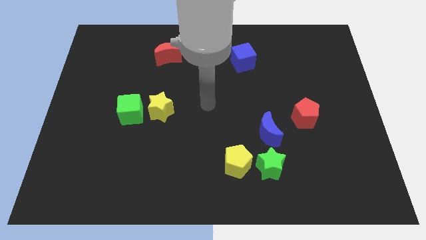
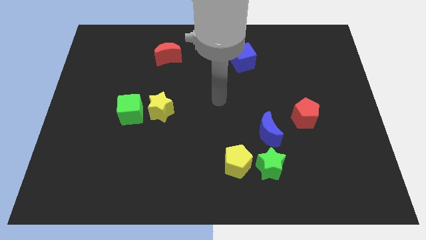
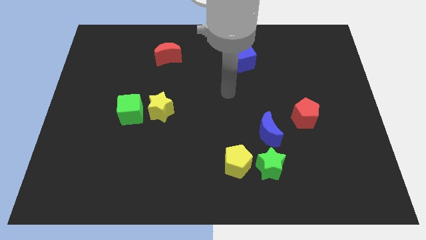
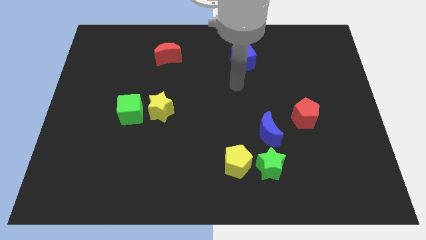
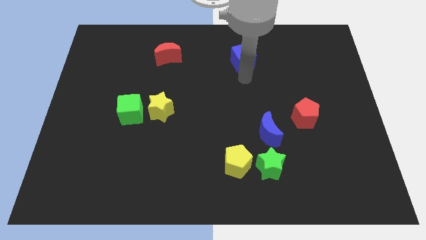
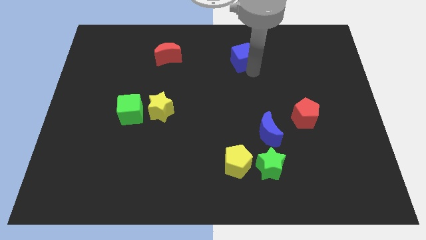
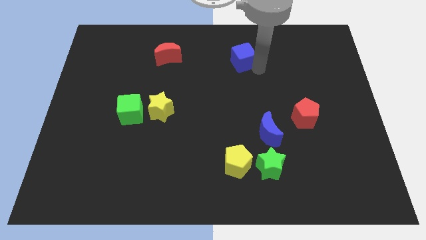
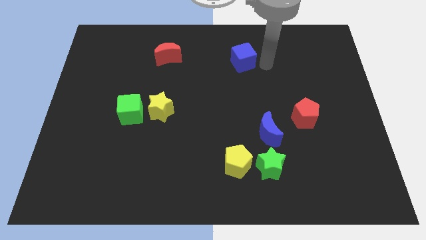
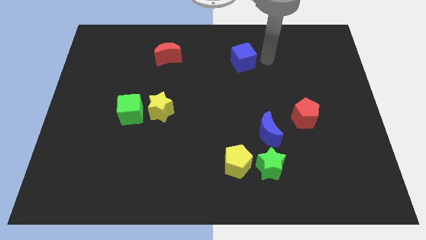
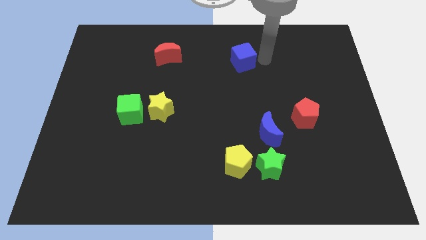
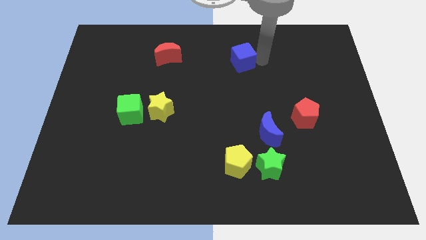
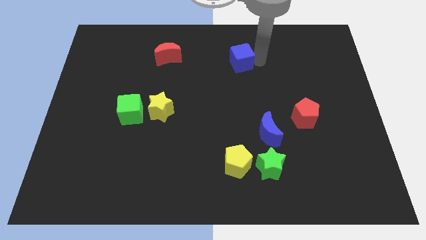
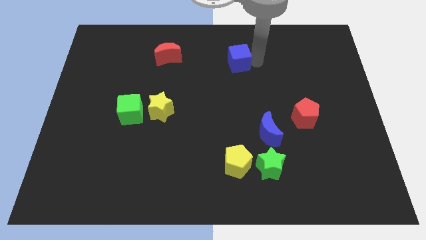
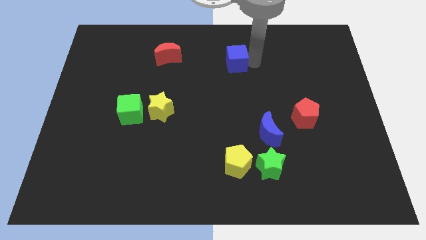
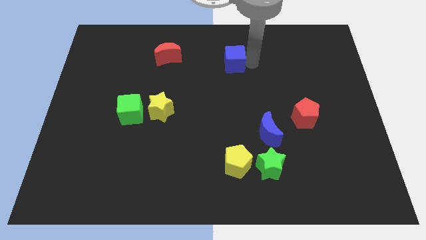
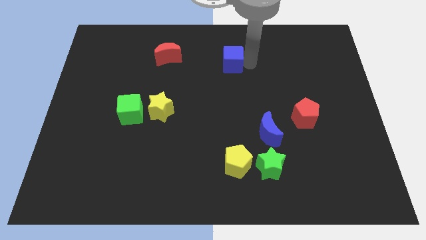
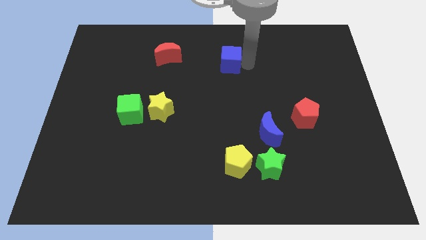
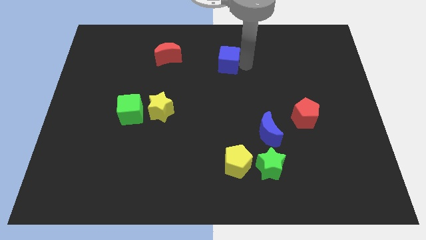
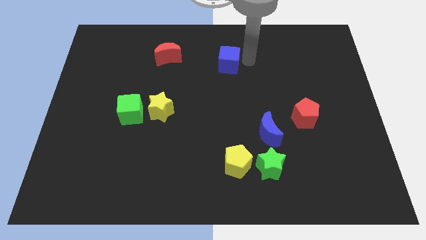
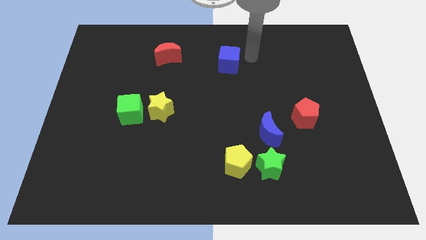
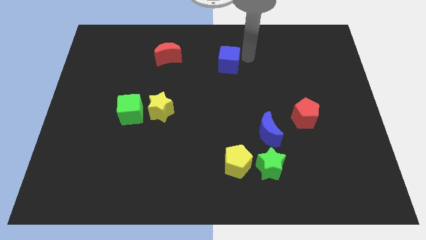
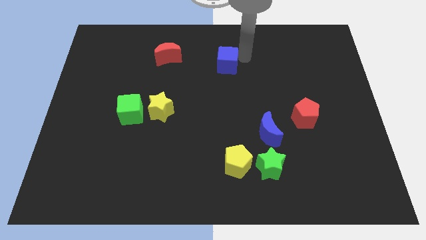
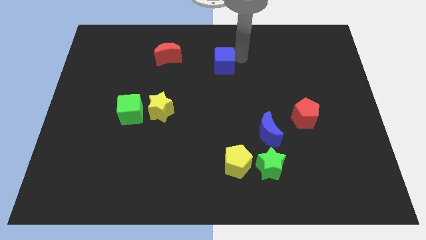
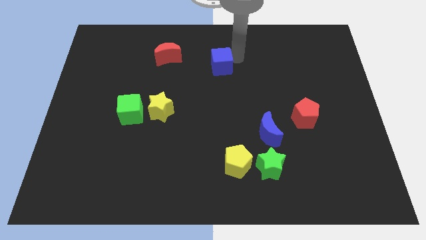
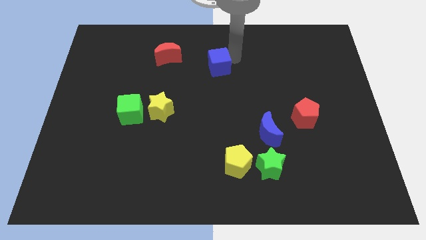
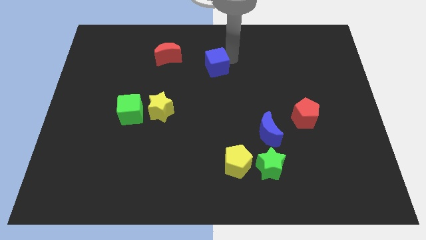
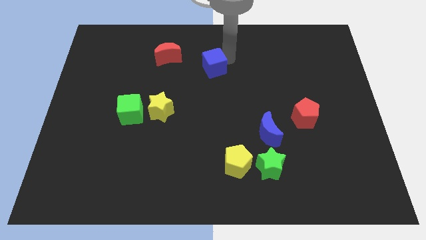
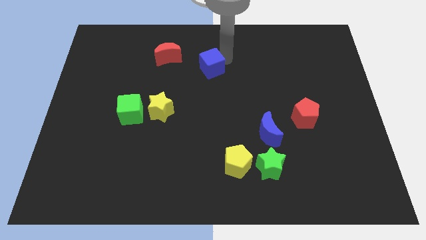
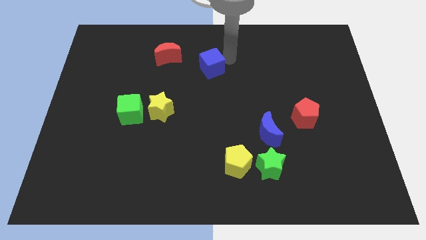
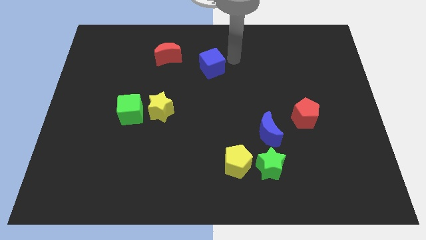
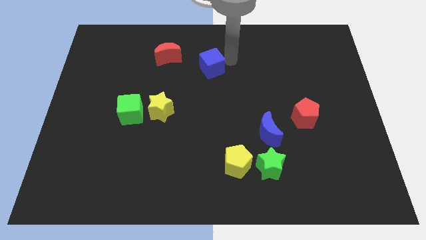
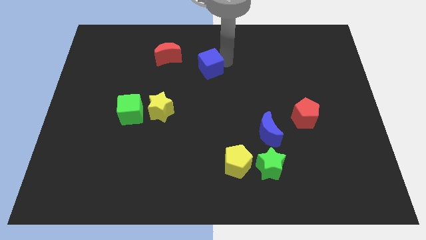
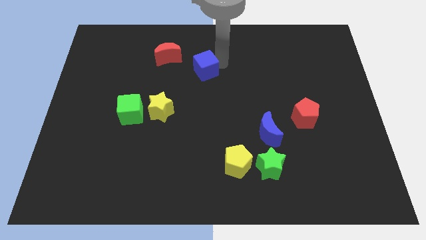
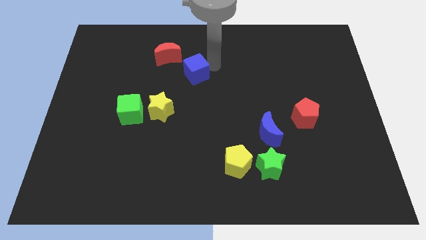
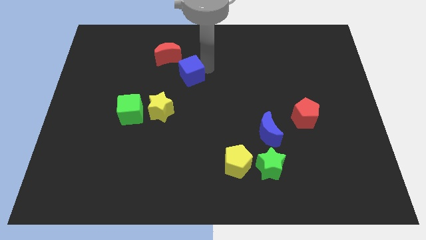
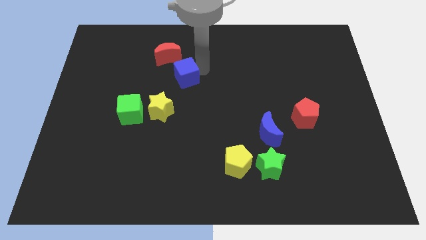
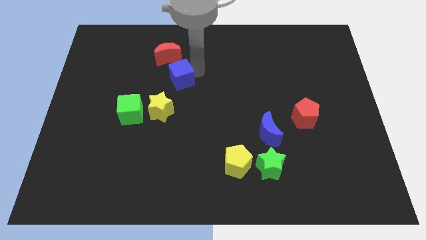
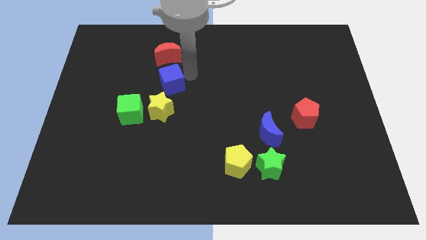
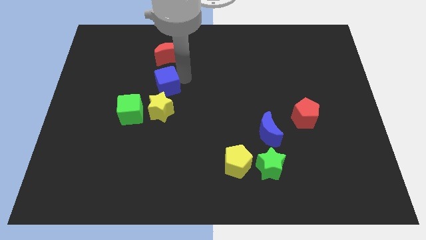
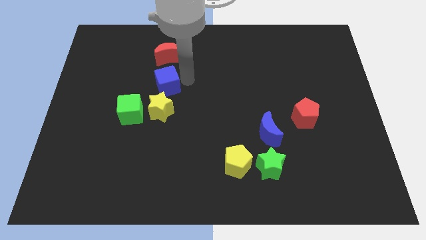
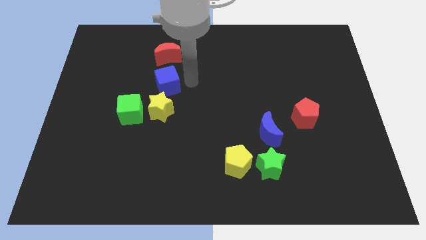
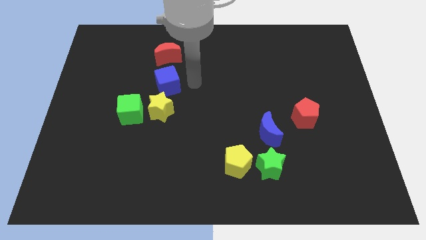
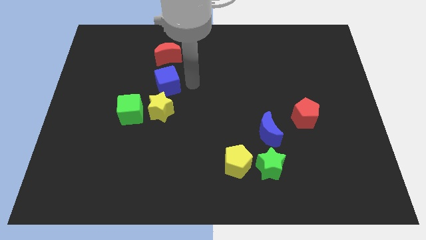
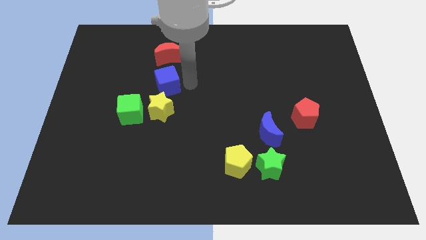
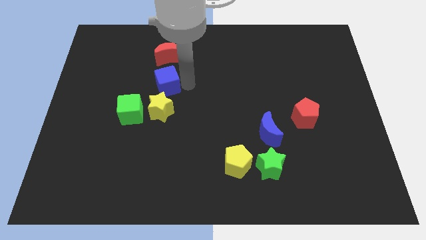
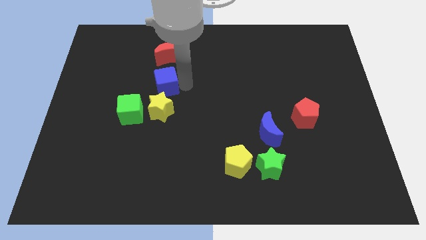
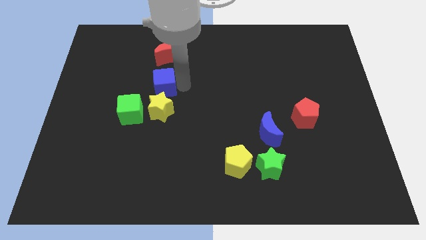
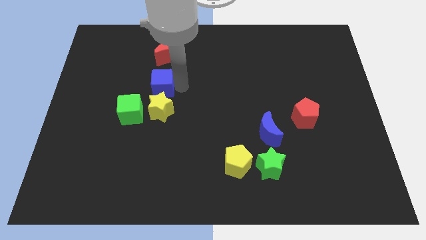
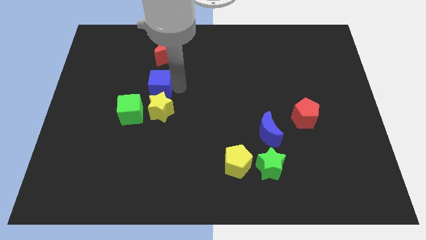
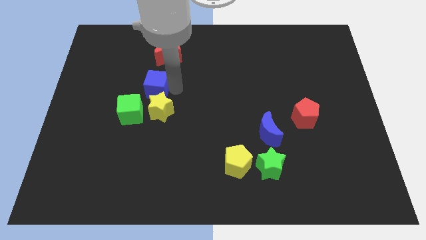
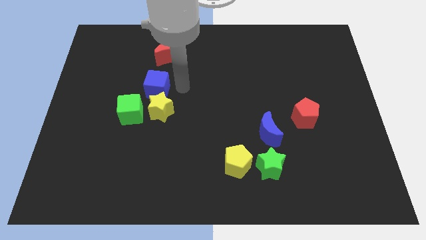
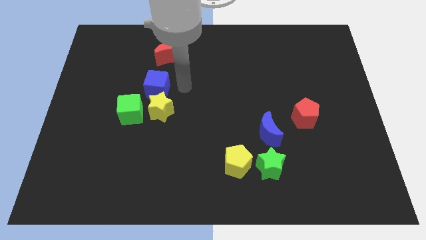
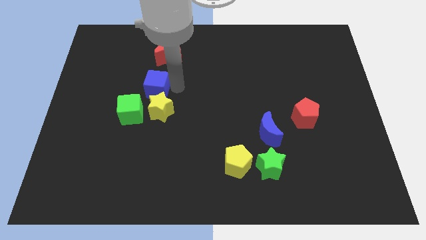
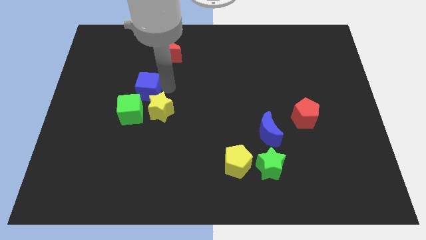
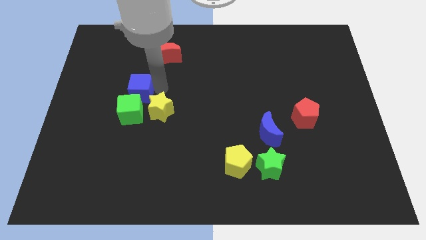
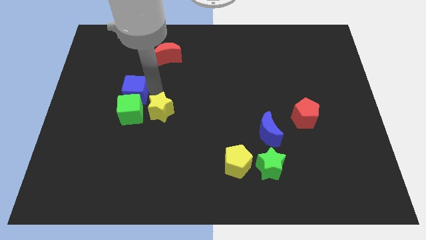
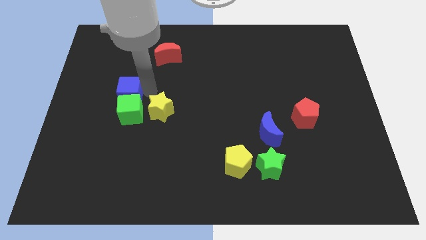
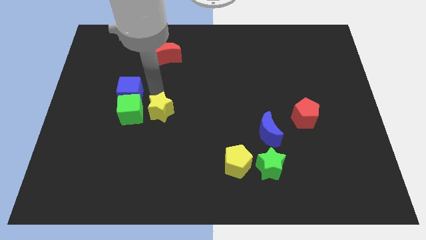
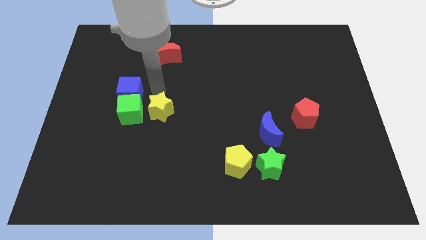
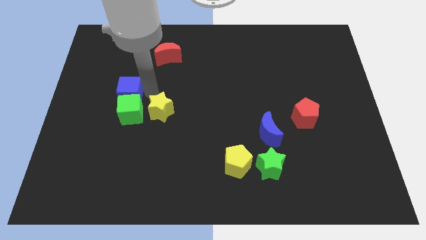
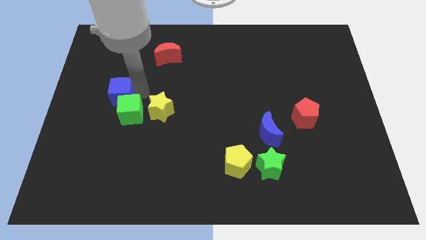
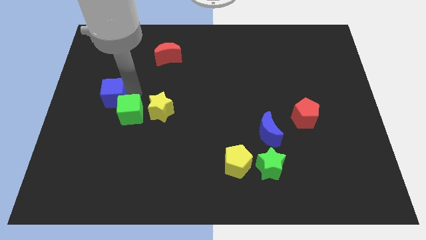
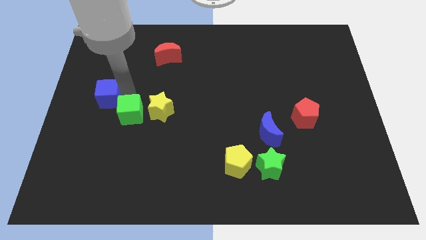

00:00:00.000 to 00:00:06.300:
move the blue cube to the left side

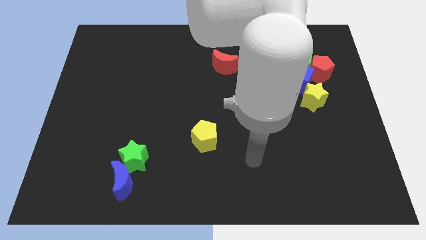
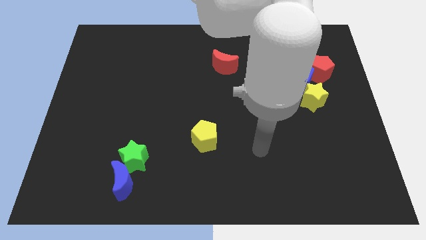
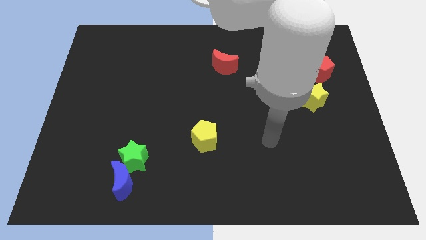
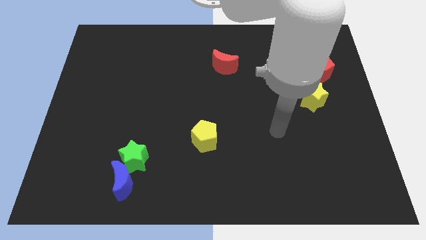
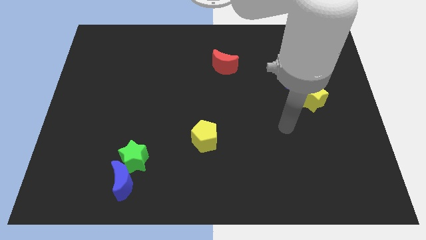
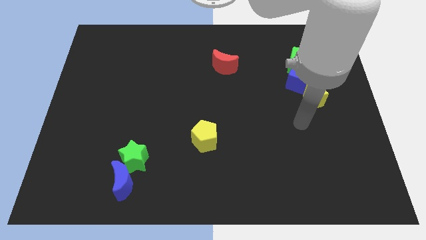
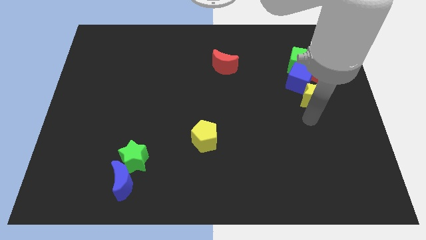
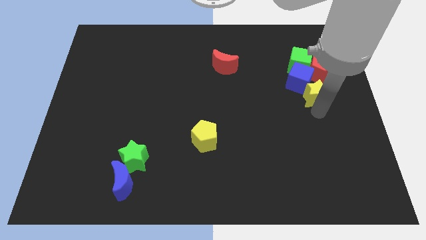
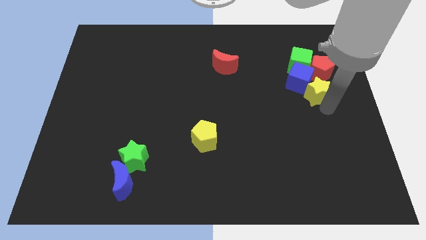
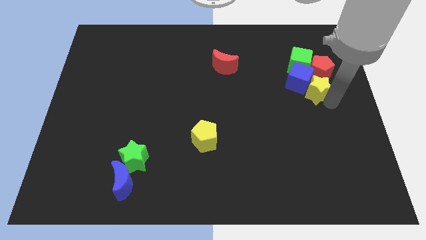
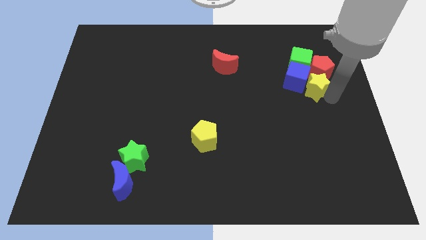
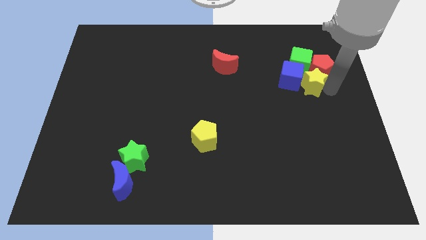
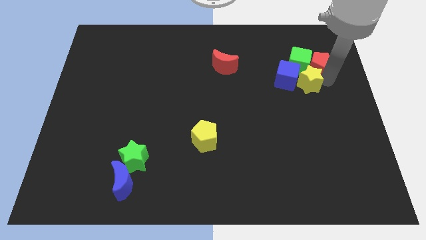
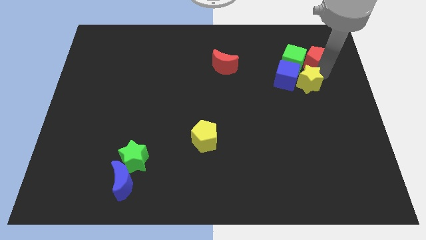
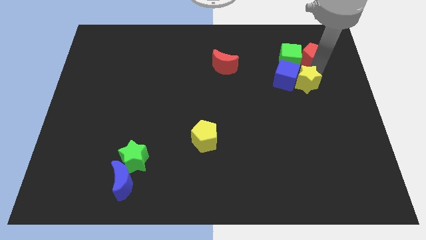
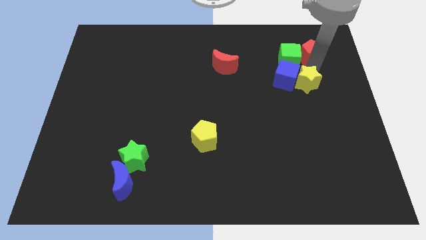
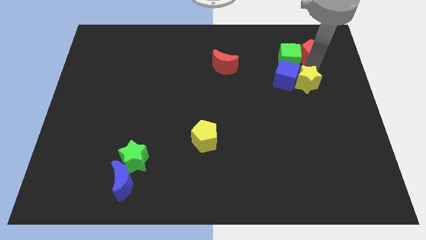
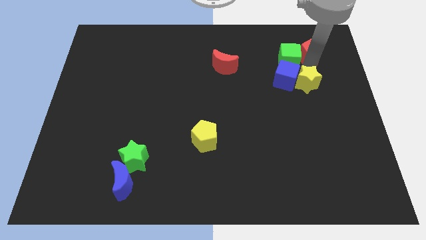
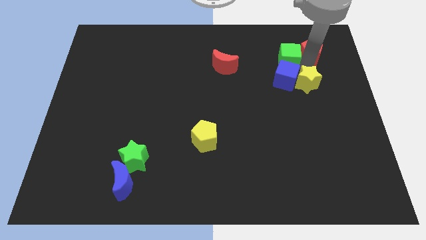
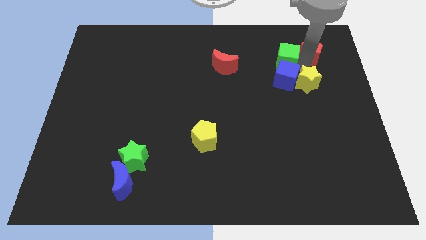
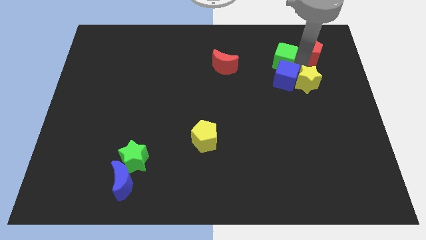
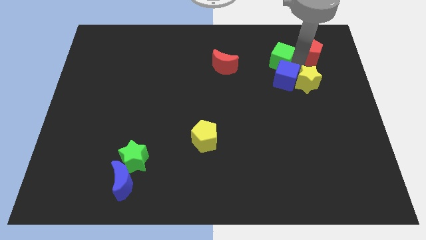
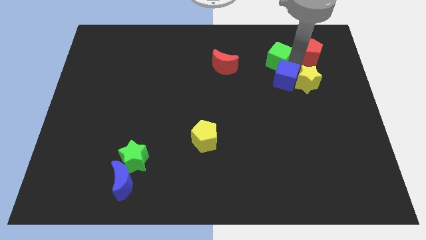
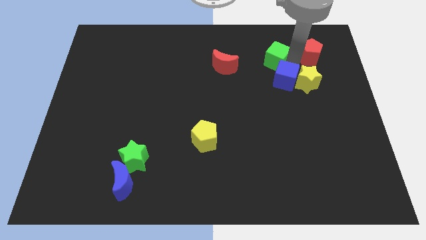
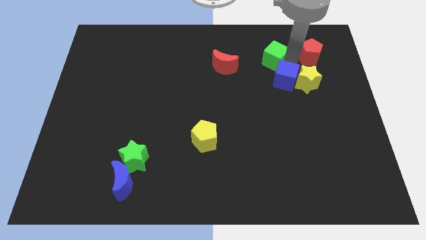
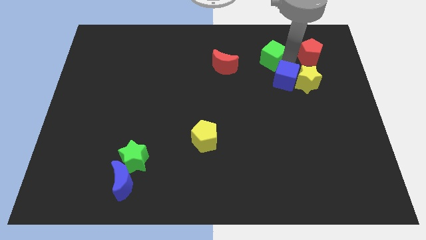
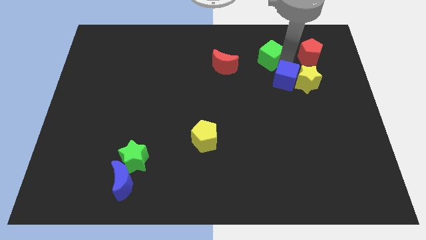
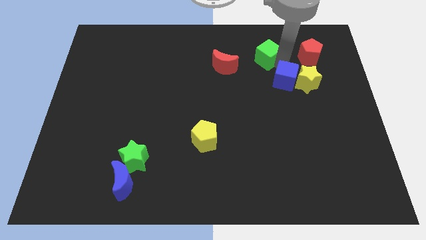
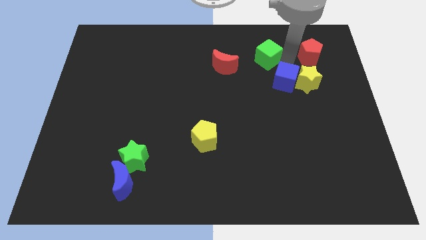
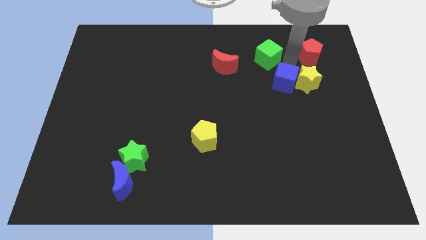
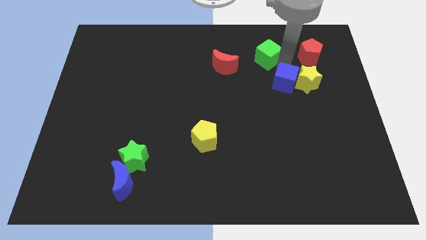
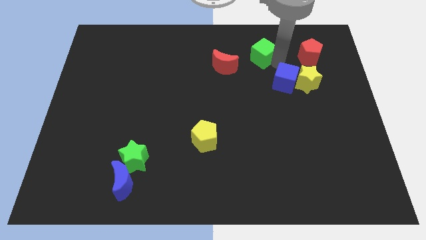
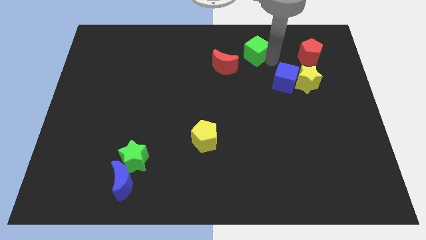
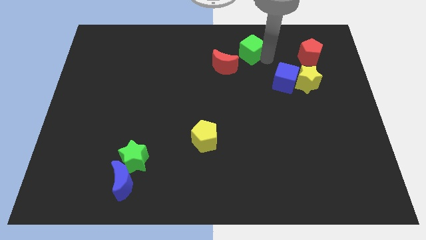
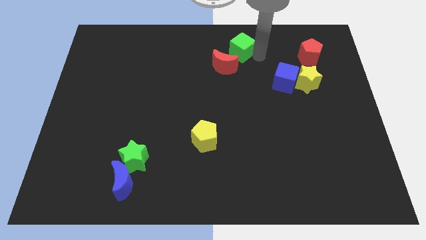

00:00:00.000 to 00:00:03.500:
put the green cube to the top side
